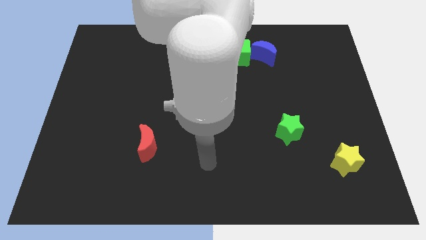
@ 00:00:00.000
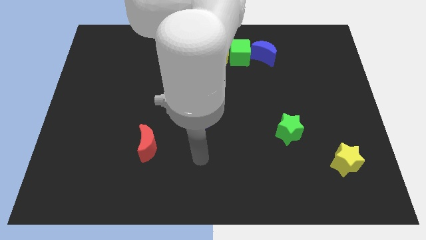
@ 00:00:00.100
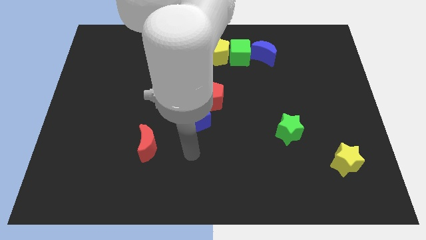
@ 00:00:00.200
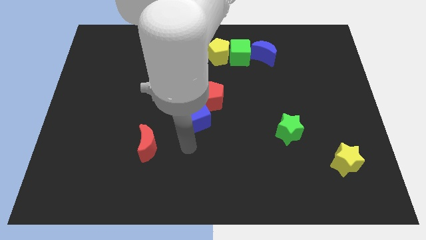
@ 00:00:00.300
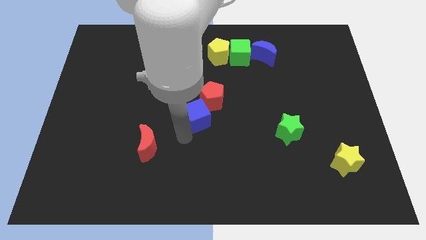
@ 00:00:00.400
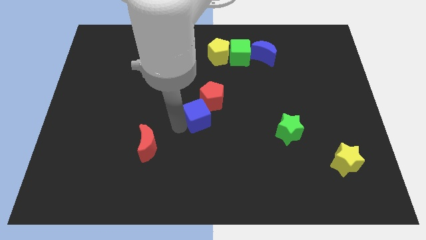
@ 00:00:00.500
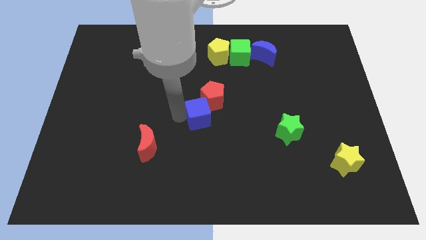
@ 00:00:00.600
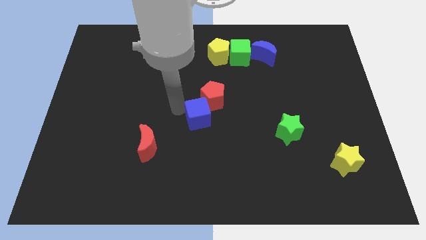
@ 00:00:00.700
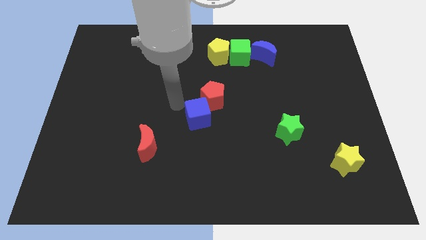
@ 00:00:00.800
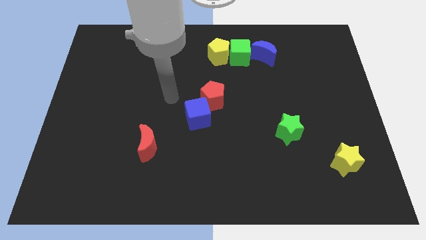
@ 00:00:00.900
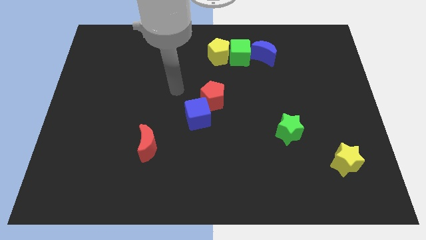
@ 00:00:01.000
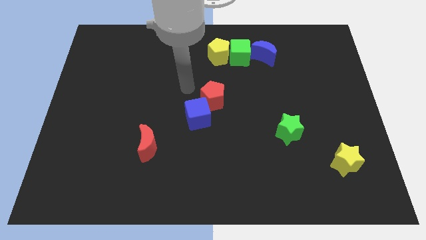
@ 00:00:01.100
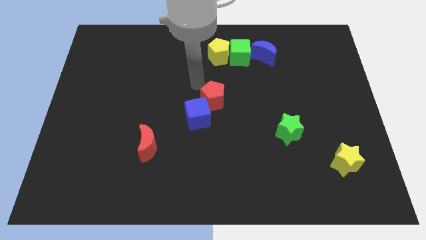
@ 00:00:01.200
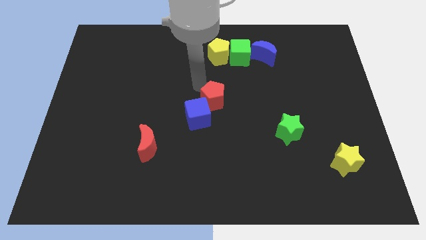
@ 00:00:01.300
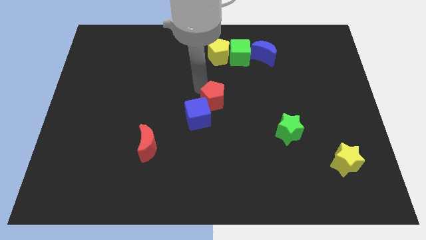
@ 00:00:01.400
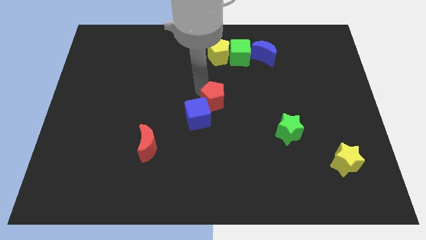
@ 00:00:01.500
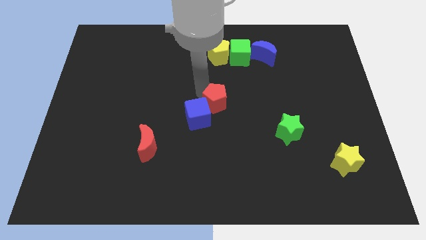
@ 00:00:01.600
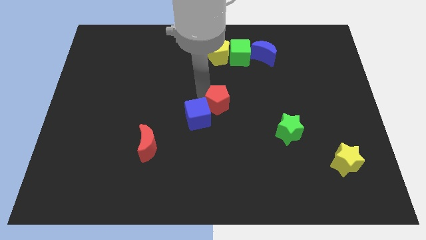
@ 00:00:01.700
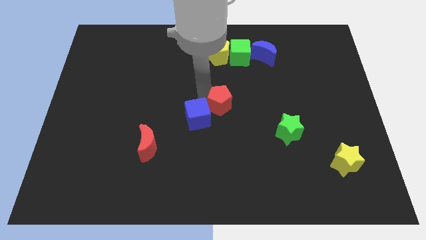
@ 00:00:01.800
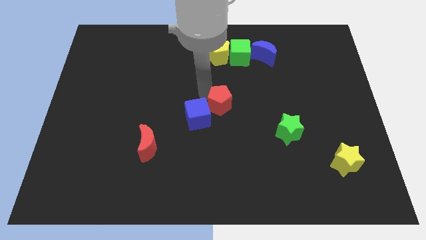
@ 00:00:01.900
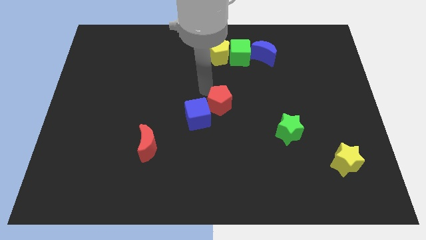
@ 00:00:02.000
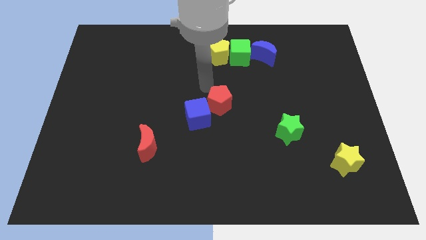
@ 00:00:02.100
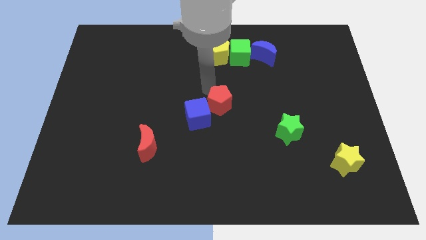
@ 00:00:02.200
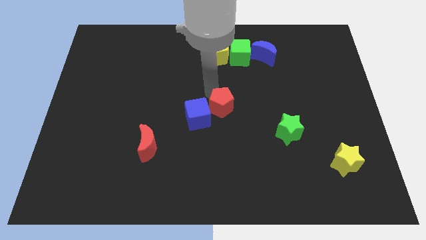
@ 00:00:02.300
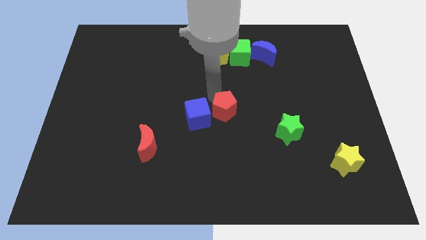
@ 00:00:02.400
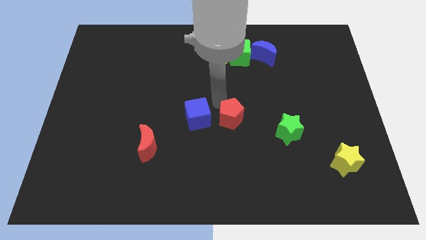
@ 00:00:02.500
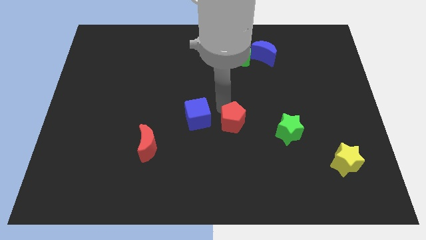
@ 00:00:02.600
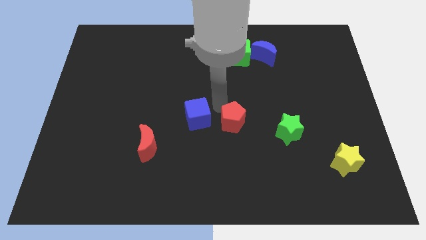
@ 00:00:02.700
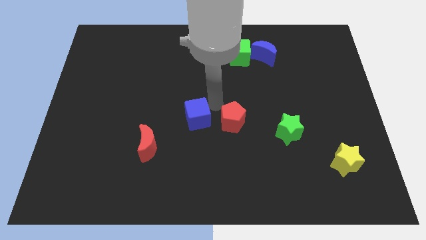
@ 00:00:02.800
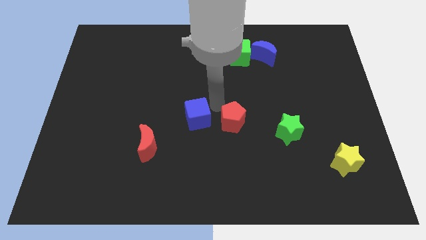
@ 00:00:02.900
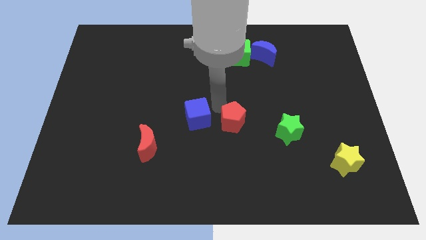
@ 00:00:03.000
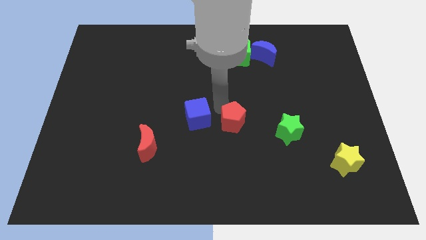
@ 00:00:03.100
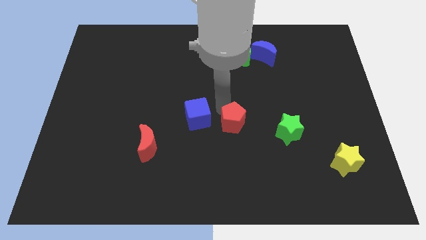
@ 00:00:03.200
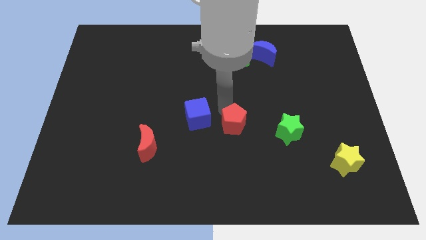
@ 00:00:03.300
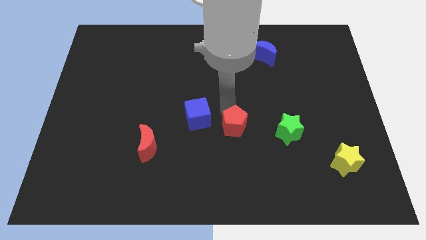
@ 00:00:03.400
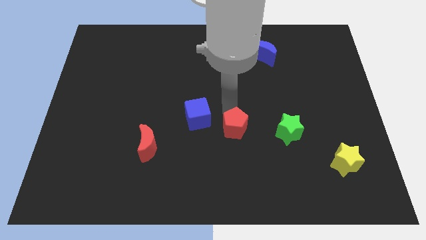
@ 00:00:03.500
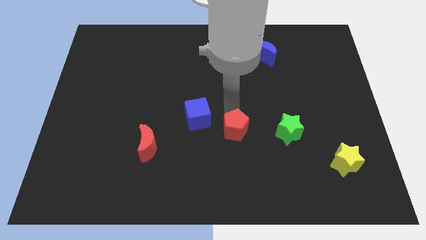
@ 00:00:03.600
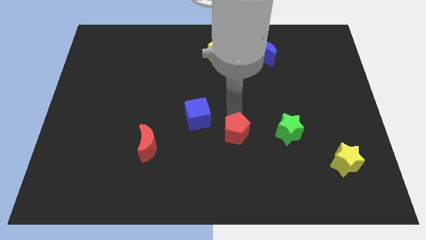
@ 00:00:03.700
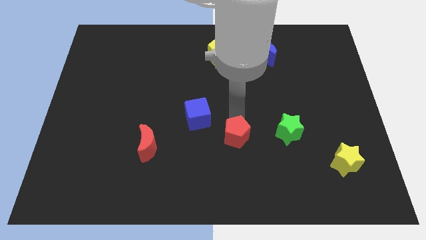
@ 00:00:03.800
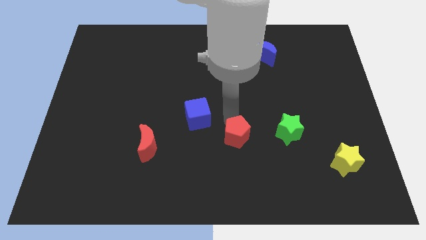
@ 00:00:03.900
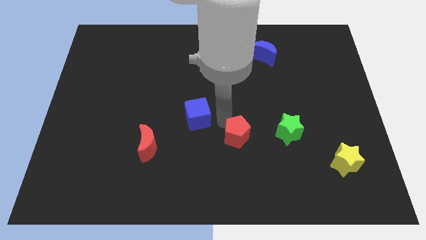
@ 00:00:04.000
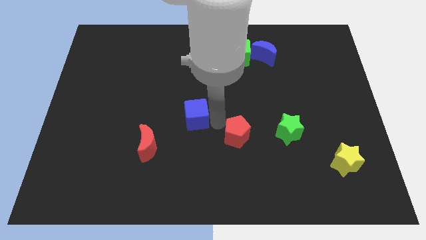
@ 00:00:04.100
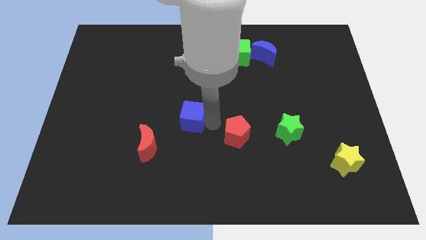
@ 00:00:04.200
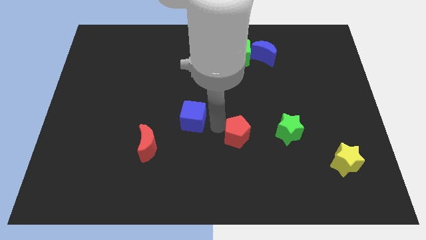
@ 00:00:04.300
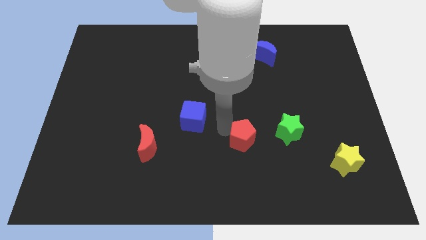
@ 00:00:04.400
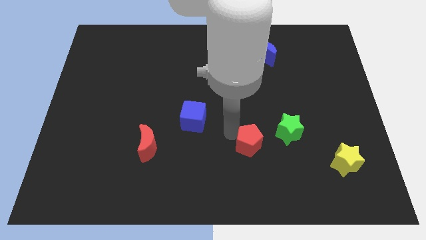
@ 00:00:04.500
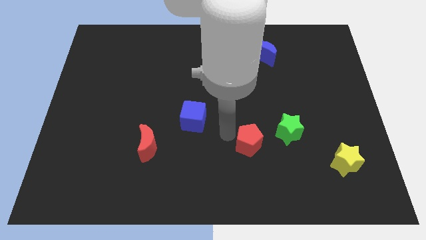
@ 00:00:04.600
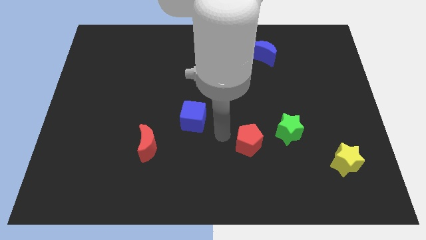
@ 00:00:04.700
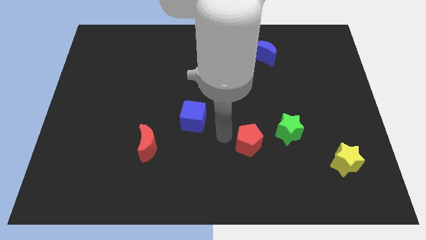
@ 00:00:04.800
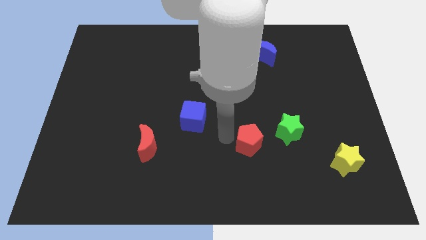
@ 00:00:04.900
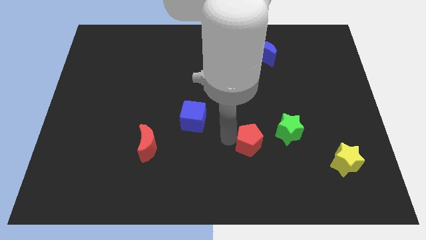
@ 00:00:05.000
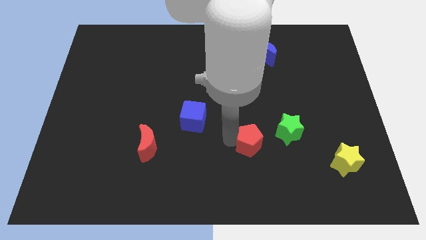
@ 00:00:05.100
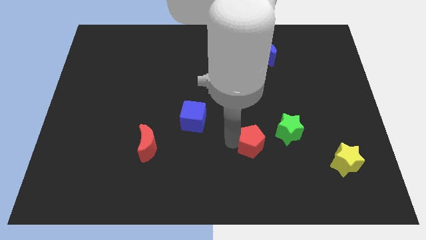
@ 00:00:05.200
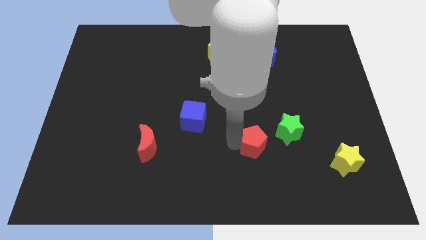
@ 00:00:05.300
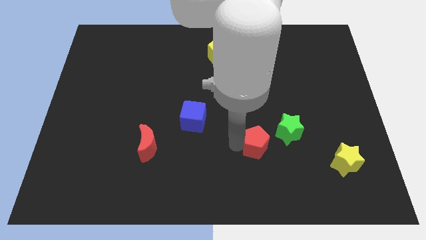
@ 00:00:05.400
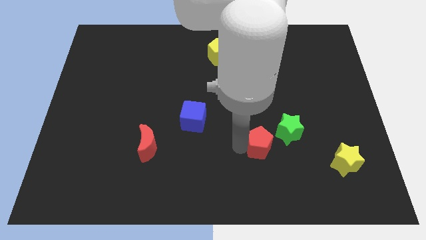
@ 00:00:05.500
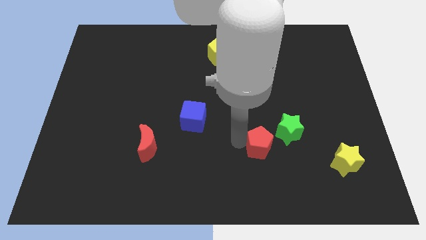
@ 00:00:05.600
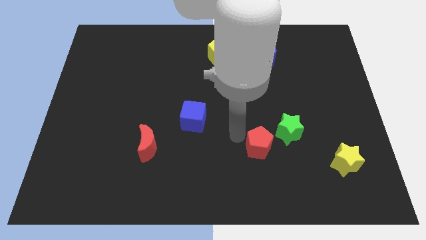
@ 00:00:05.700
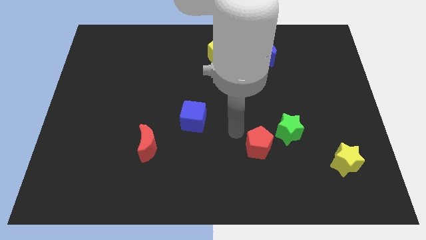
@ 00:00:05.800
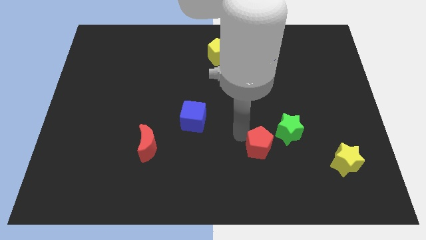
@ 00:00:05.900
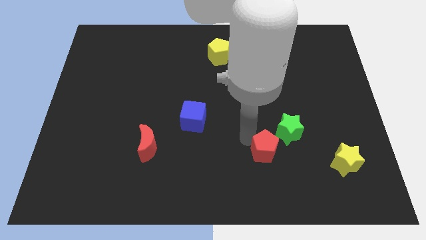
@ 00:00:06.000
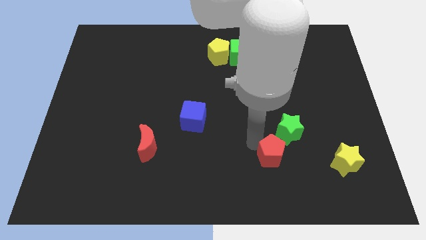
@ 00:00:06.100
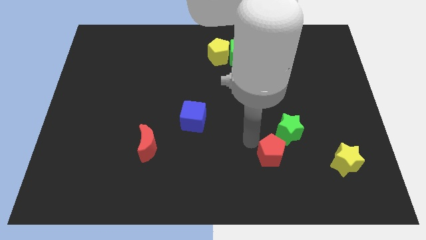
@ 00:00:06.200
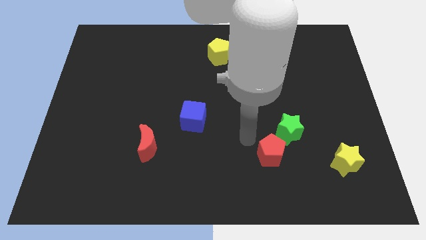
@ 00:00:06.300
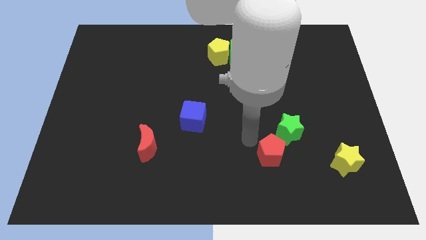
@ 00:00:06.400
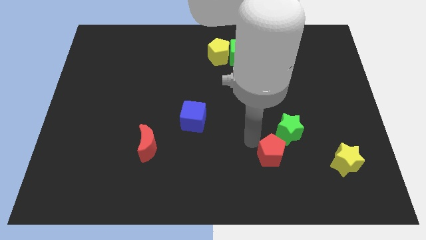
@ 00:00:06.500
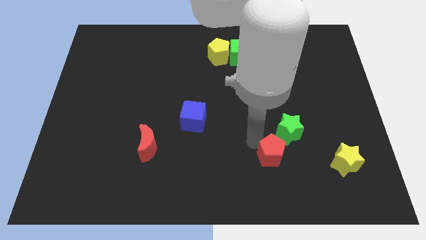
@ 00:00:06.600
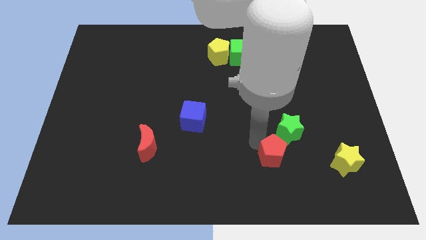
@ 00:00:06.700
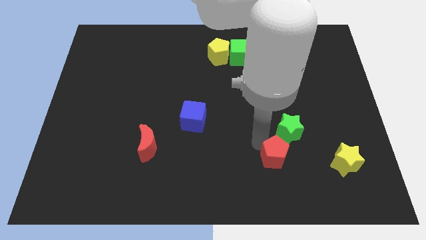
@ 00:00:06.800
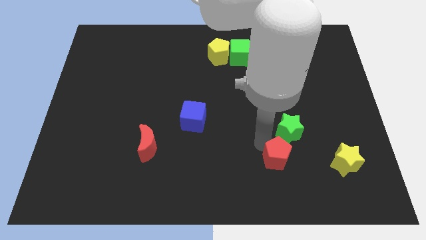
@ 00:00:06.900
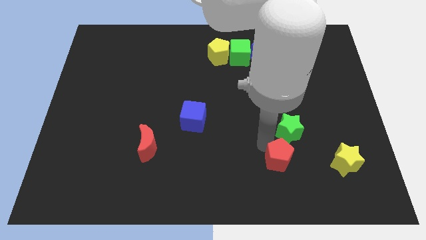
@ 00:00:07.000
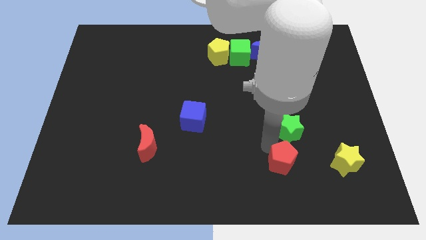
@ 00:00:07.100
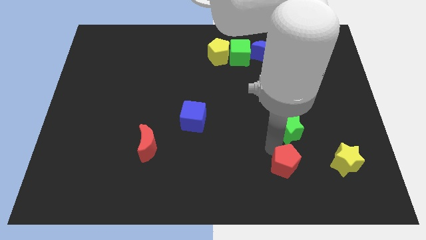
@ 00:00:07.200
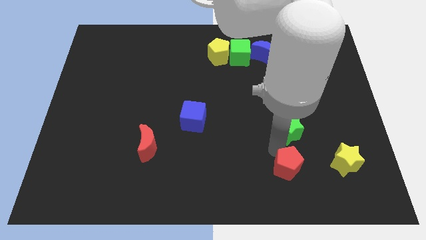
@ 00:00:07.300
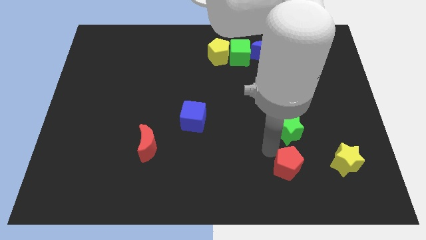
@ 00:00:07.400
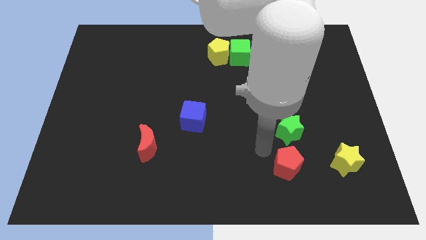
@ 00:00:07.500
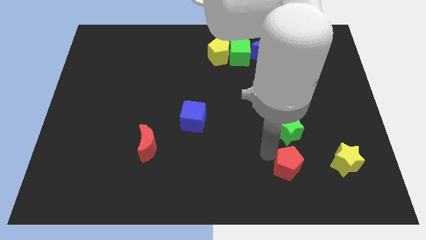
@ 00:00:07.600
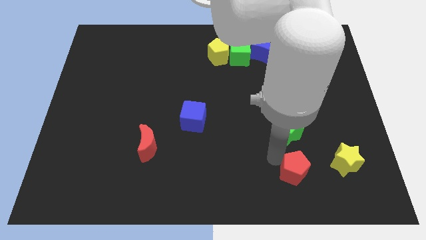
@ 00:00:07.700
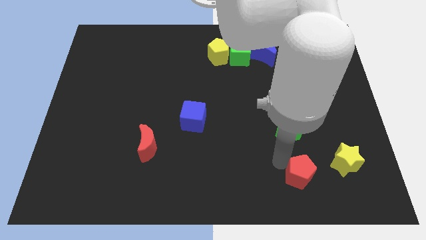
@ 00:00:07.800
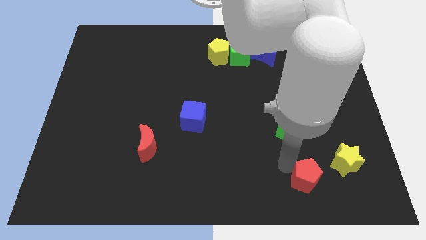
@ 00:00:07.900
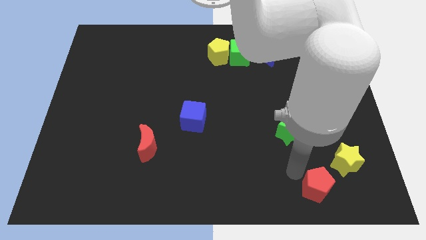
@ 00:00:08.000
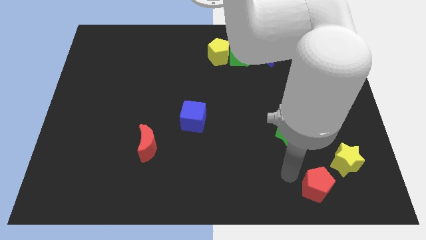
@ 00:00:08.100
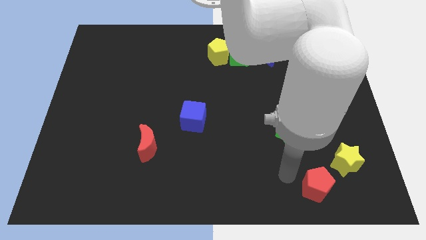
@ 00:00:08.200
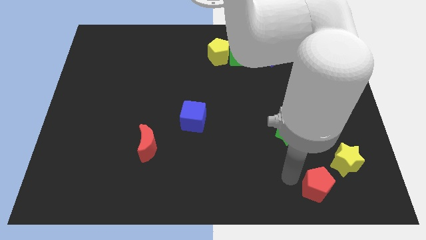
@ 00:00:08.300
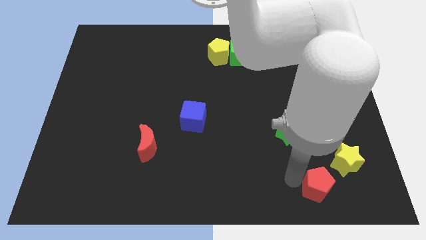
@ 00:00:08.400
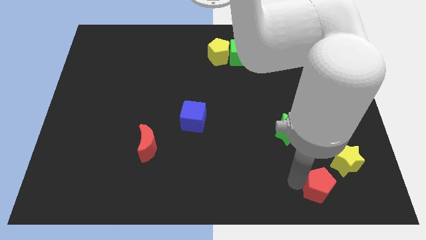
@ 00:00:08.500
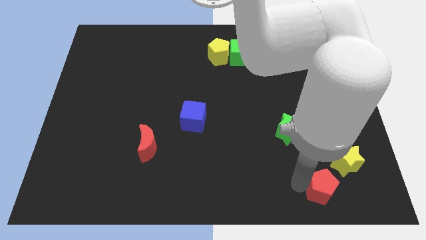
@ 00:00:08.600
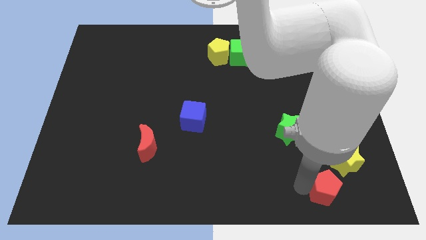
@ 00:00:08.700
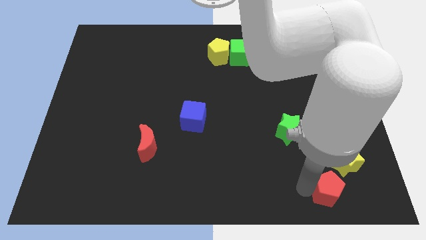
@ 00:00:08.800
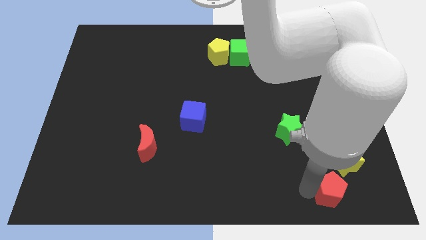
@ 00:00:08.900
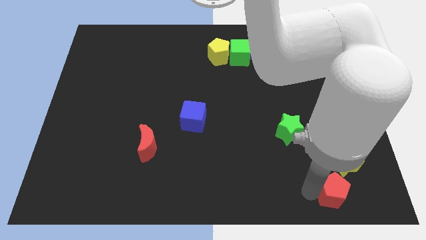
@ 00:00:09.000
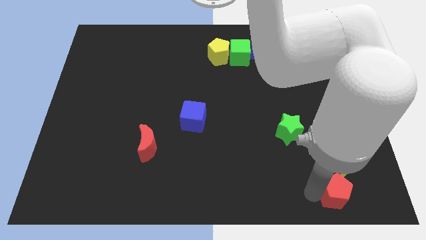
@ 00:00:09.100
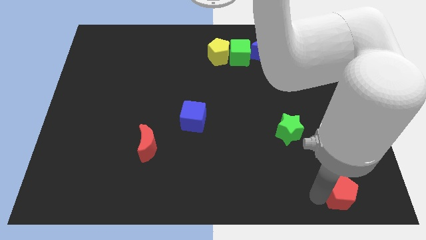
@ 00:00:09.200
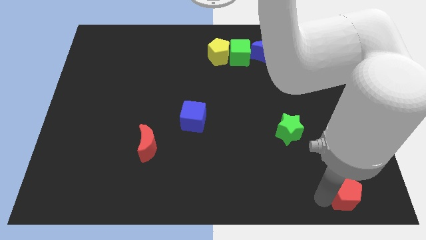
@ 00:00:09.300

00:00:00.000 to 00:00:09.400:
push the red pentagon to the lower right corner
